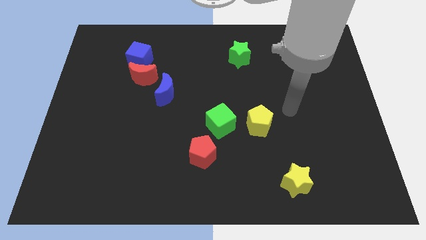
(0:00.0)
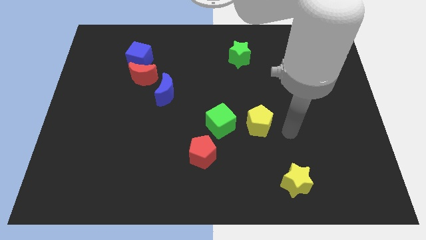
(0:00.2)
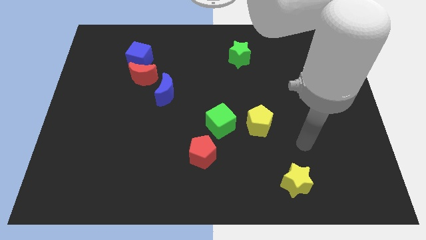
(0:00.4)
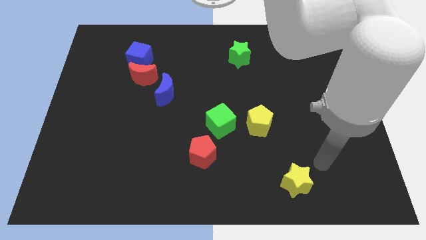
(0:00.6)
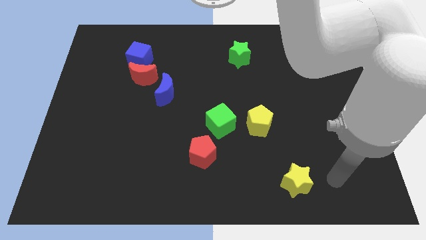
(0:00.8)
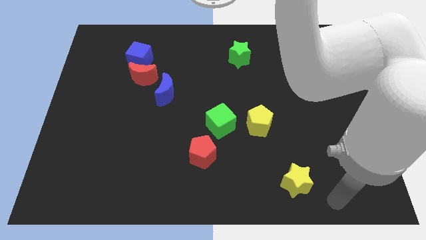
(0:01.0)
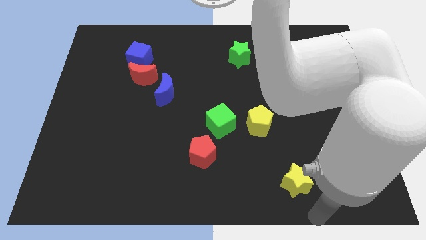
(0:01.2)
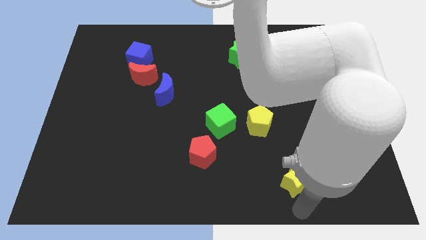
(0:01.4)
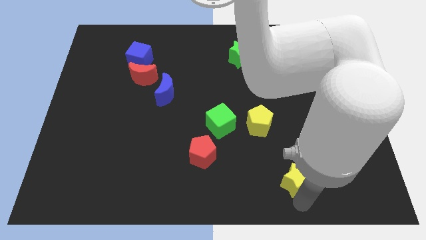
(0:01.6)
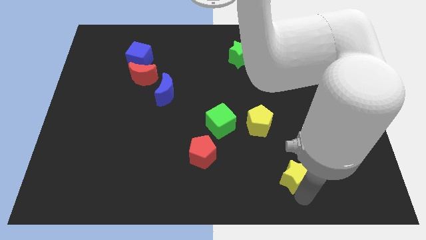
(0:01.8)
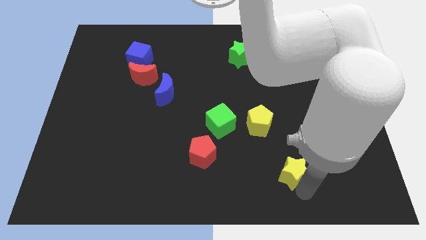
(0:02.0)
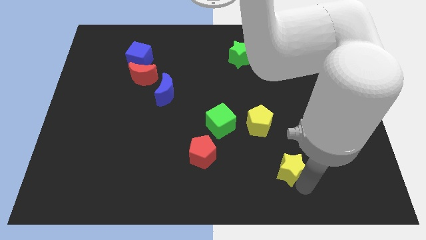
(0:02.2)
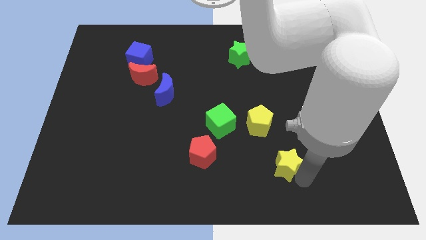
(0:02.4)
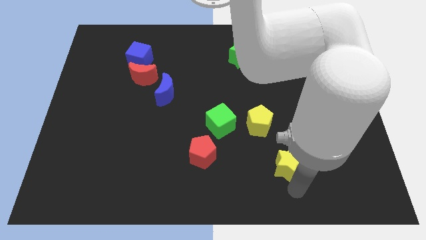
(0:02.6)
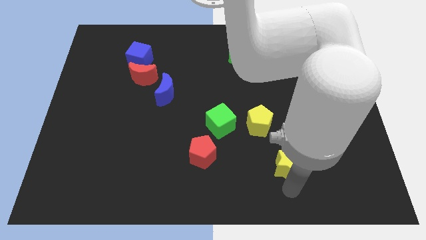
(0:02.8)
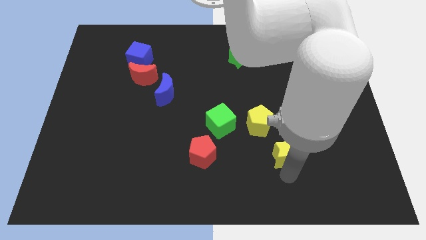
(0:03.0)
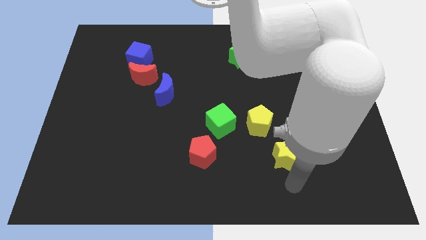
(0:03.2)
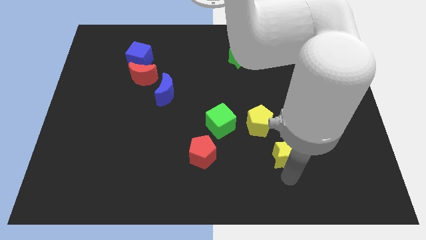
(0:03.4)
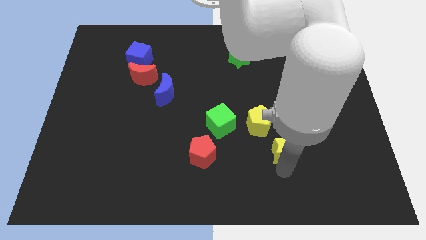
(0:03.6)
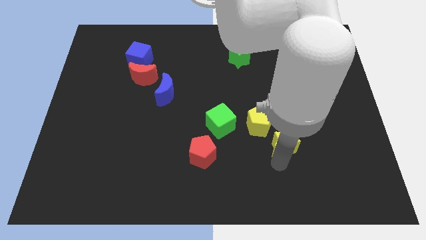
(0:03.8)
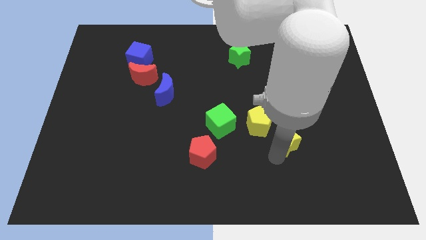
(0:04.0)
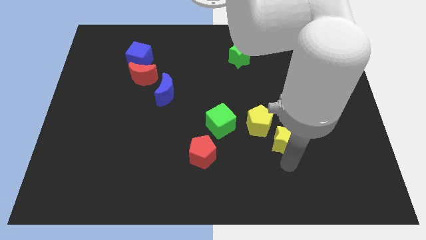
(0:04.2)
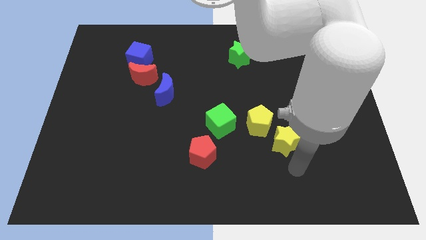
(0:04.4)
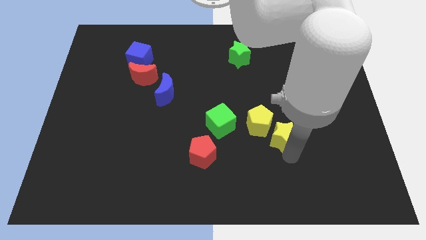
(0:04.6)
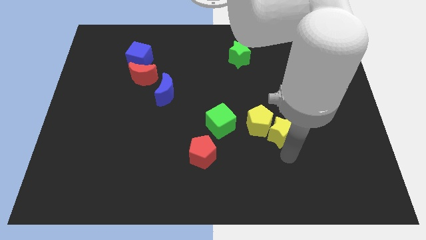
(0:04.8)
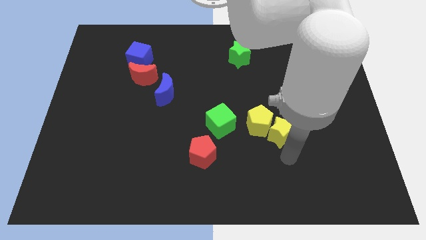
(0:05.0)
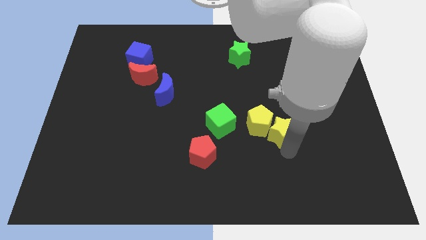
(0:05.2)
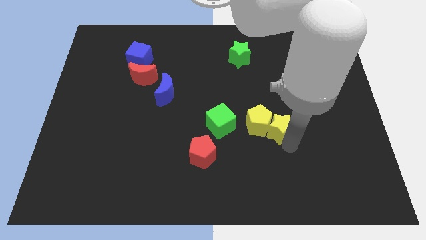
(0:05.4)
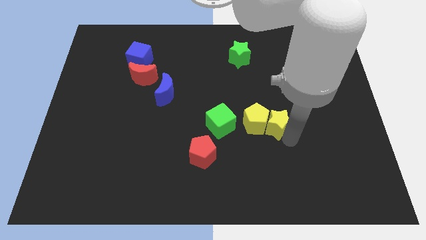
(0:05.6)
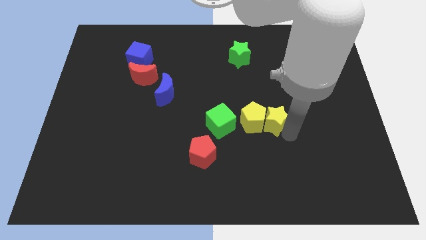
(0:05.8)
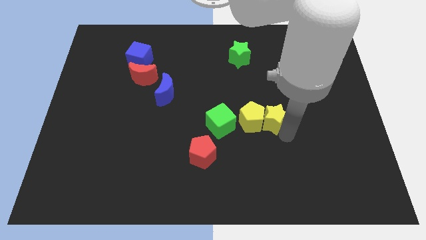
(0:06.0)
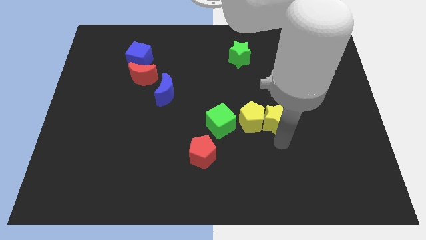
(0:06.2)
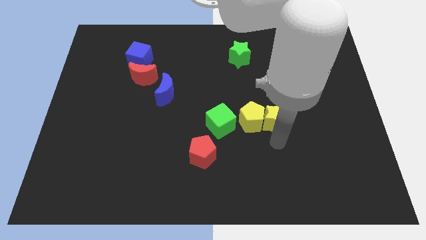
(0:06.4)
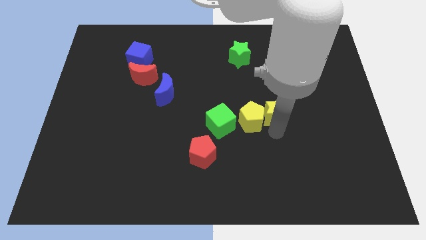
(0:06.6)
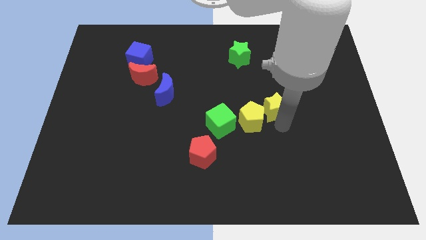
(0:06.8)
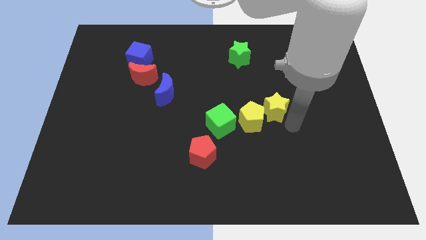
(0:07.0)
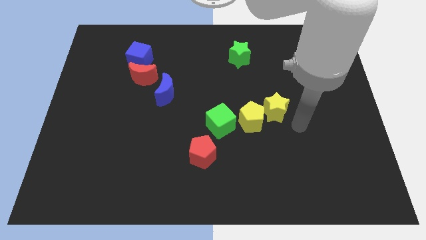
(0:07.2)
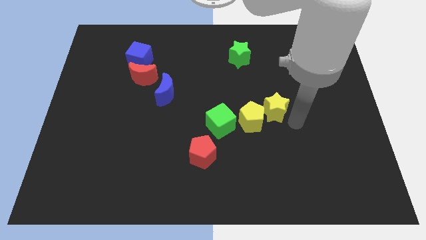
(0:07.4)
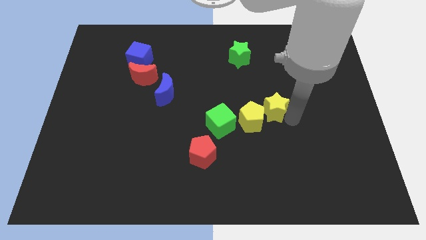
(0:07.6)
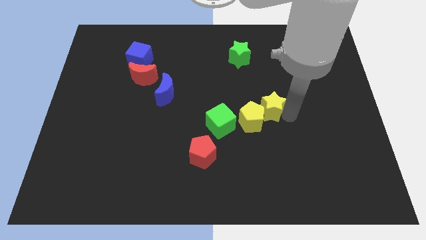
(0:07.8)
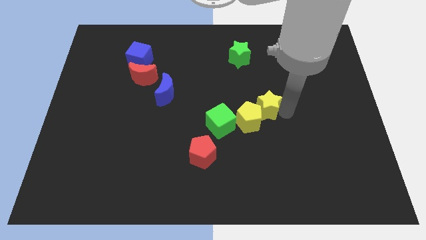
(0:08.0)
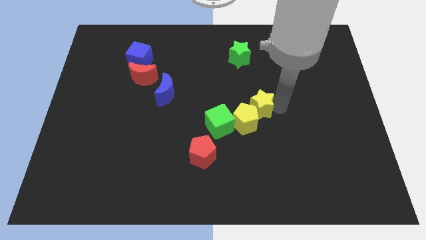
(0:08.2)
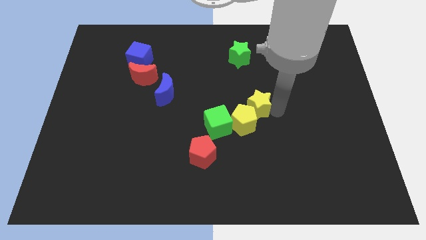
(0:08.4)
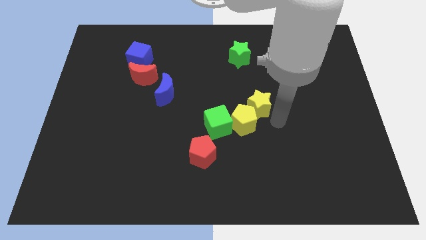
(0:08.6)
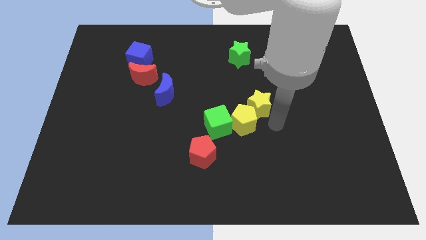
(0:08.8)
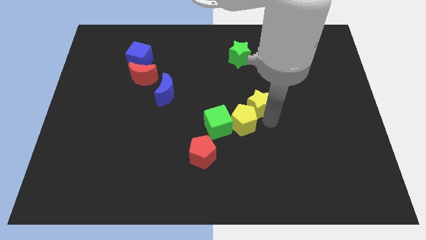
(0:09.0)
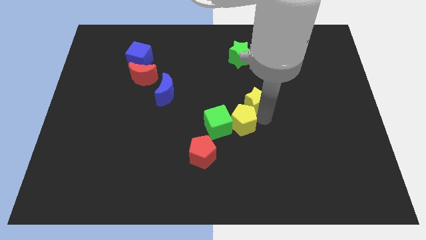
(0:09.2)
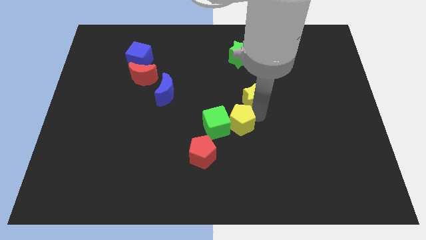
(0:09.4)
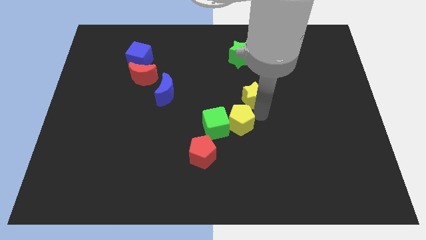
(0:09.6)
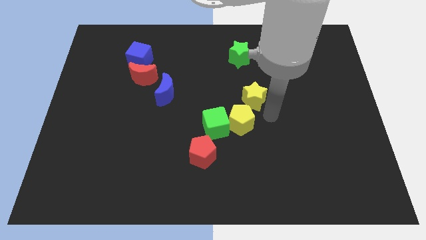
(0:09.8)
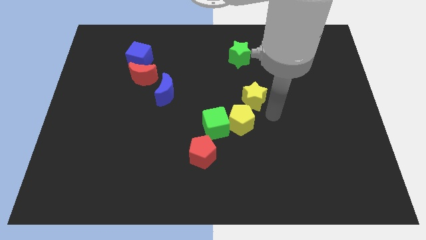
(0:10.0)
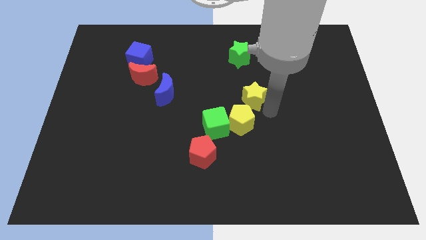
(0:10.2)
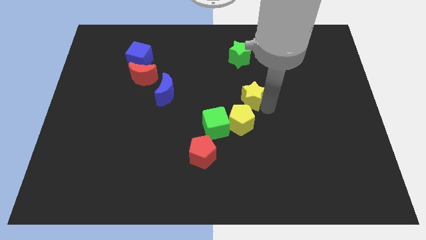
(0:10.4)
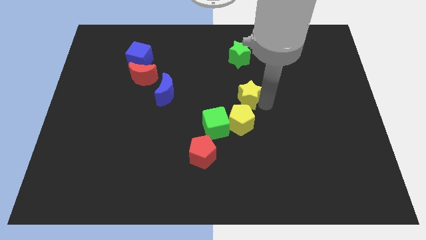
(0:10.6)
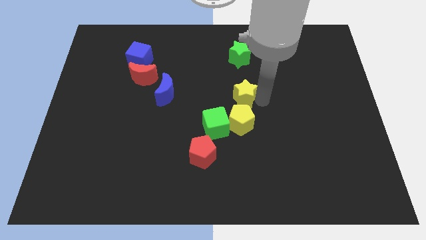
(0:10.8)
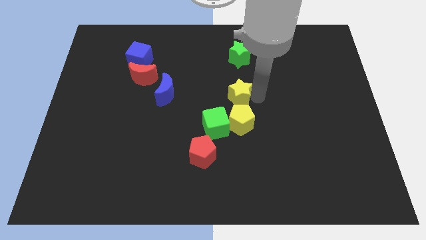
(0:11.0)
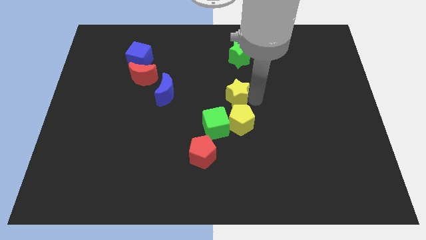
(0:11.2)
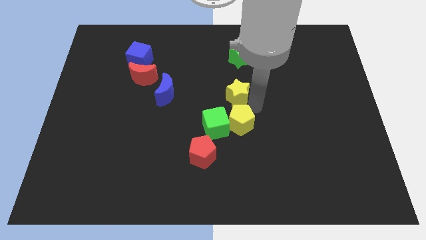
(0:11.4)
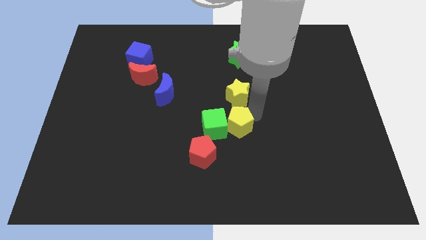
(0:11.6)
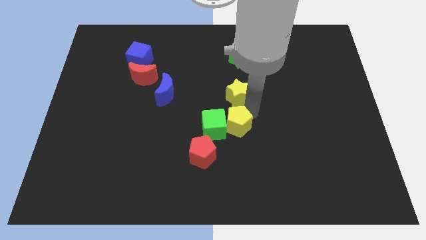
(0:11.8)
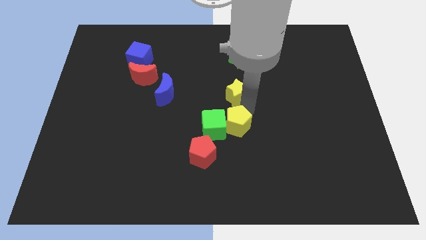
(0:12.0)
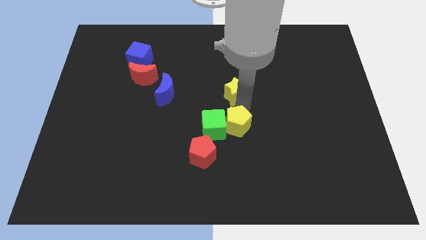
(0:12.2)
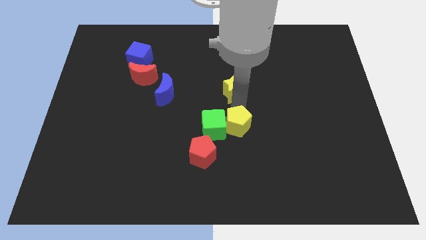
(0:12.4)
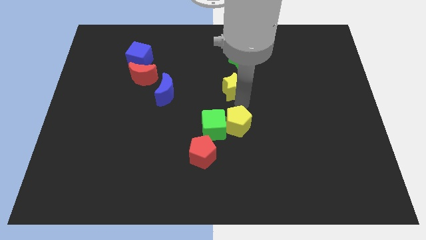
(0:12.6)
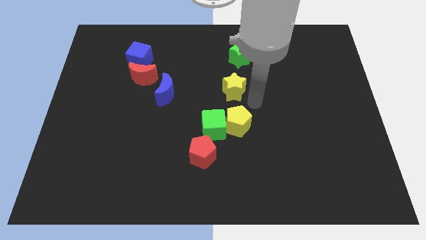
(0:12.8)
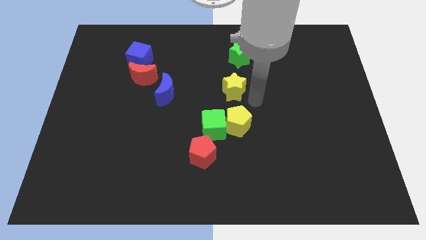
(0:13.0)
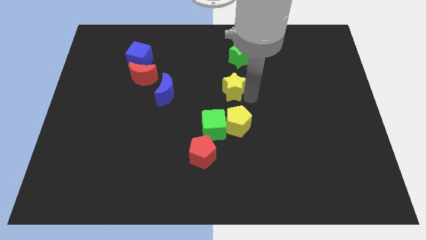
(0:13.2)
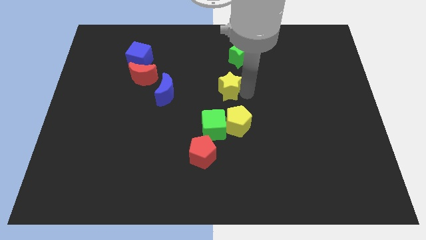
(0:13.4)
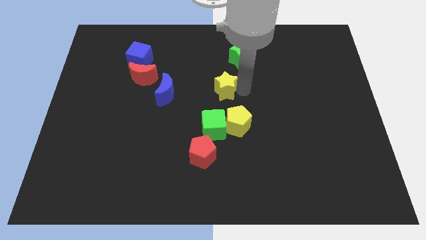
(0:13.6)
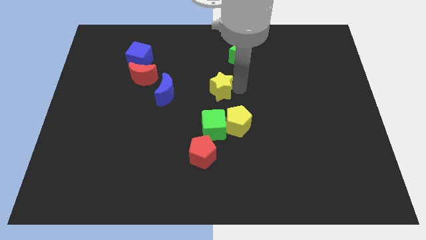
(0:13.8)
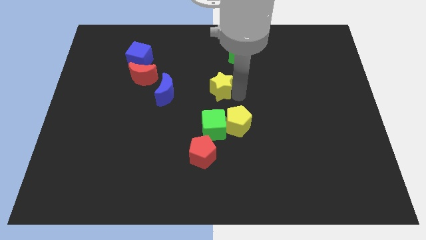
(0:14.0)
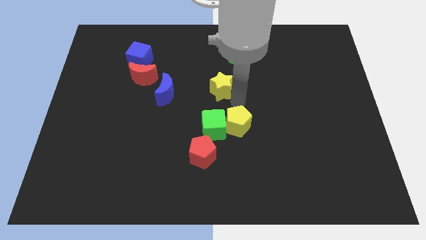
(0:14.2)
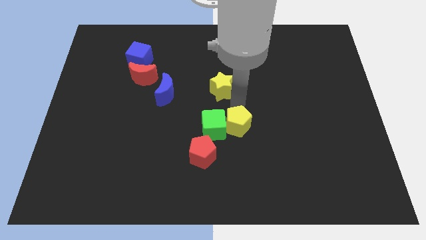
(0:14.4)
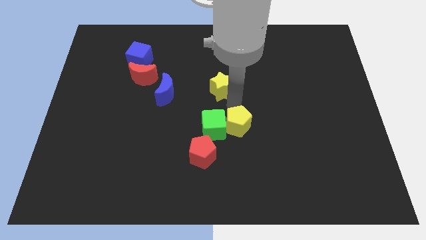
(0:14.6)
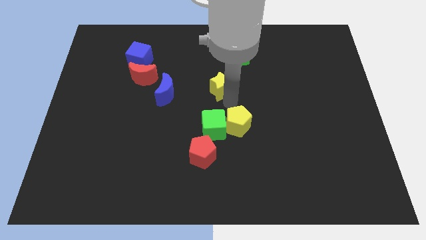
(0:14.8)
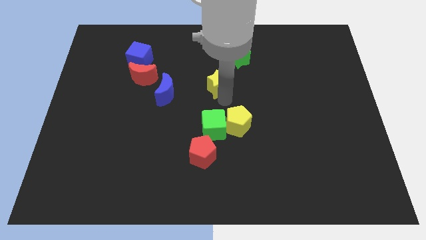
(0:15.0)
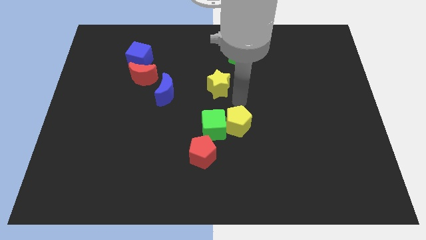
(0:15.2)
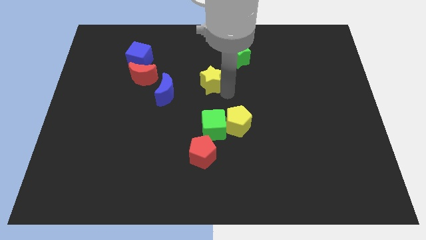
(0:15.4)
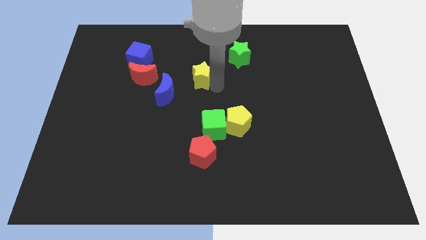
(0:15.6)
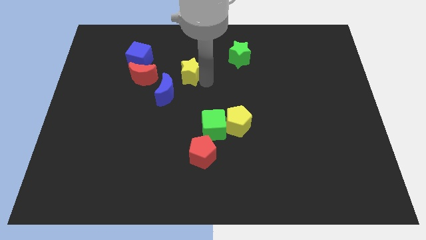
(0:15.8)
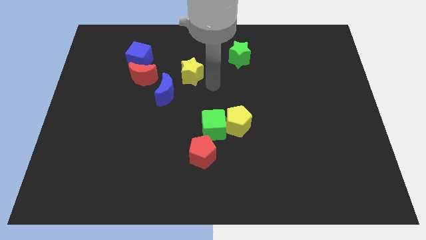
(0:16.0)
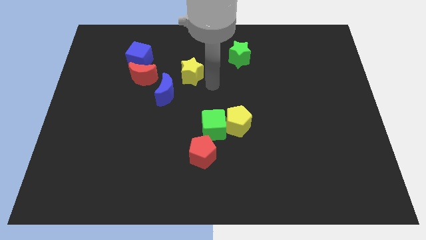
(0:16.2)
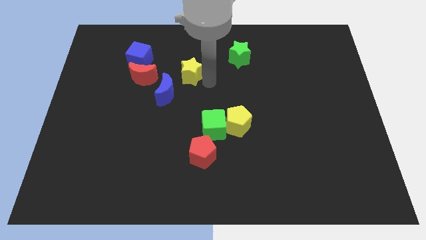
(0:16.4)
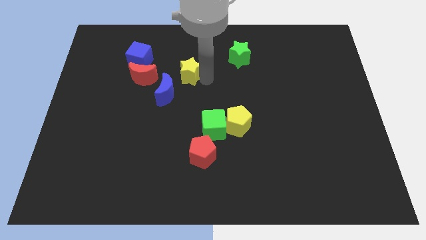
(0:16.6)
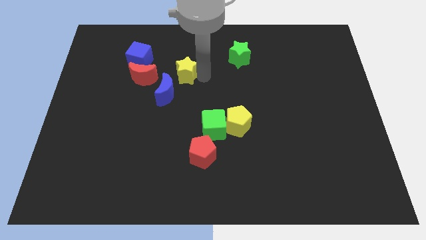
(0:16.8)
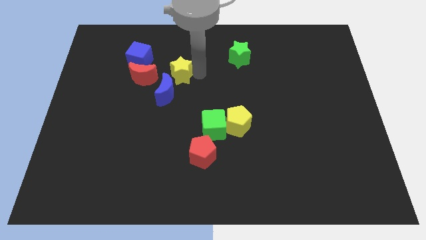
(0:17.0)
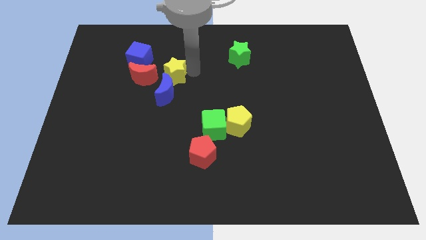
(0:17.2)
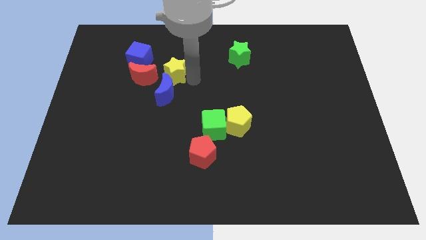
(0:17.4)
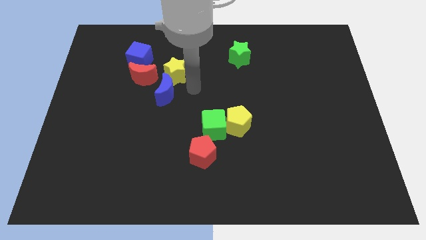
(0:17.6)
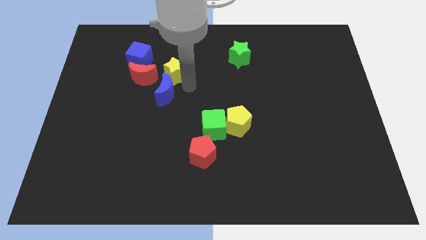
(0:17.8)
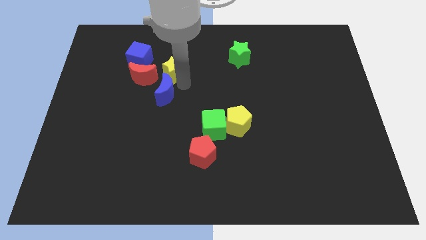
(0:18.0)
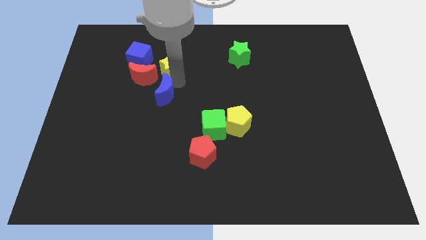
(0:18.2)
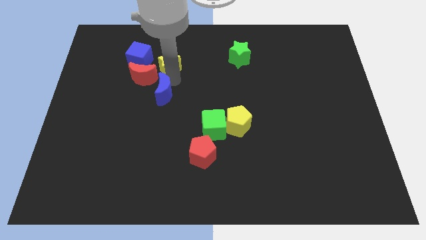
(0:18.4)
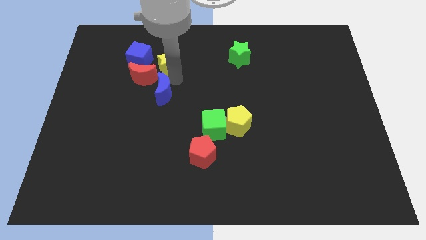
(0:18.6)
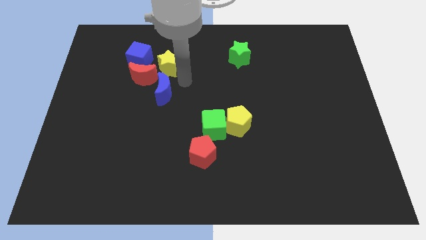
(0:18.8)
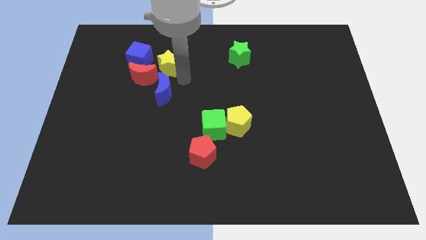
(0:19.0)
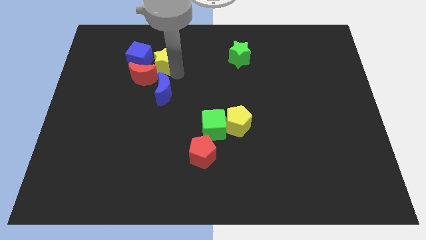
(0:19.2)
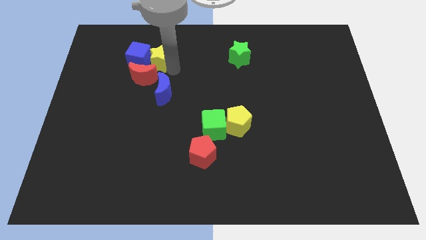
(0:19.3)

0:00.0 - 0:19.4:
push the yellow star close to the blue cube
